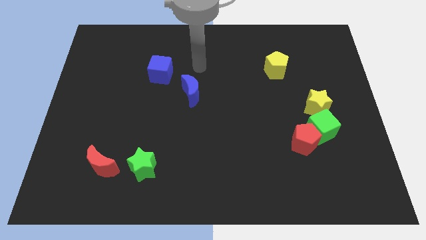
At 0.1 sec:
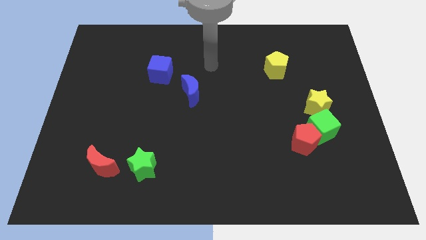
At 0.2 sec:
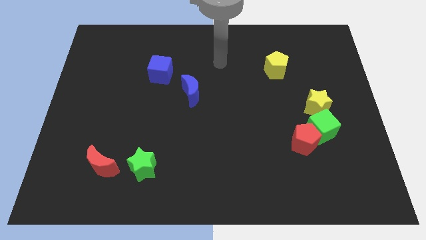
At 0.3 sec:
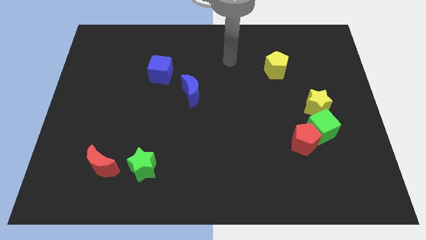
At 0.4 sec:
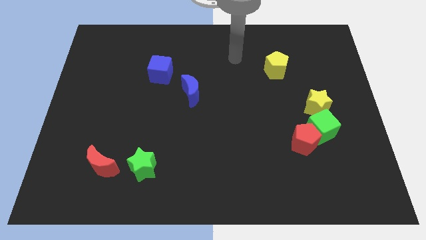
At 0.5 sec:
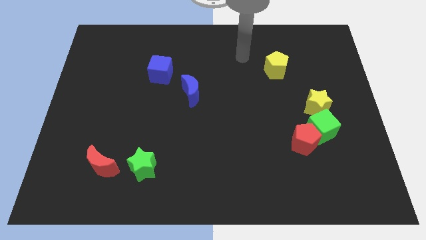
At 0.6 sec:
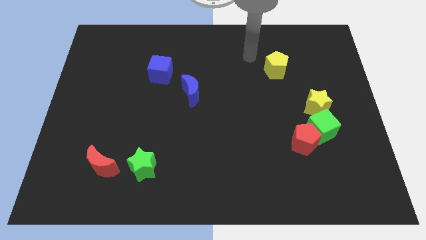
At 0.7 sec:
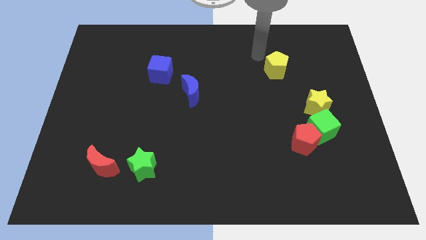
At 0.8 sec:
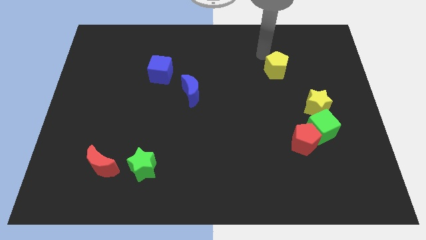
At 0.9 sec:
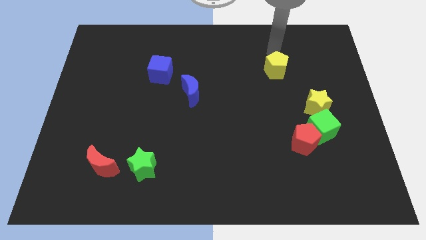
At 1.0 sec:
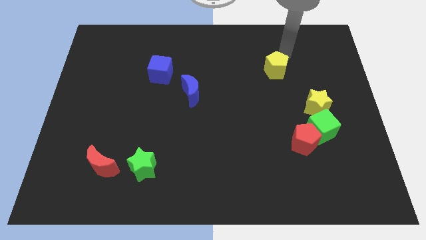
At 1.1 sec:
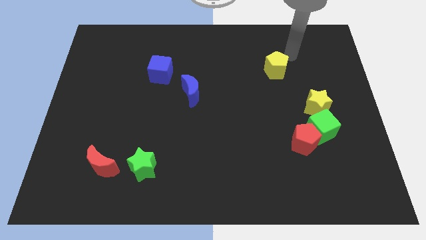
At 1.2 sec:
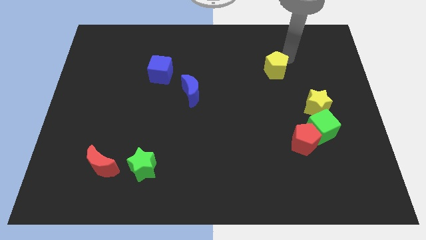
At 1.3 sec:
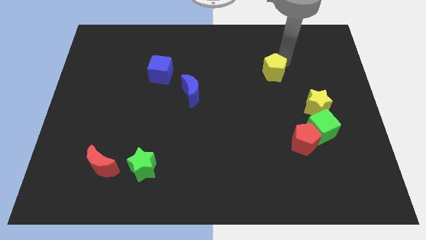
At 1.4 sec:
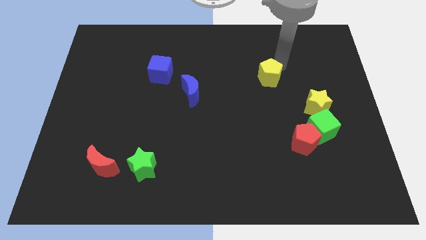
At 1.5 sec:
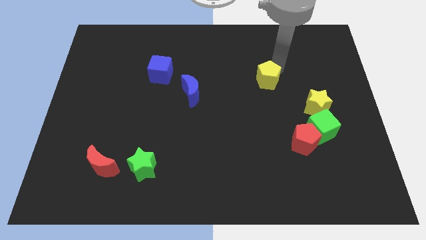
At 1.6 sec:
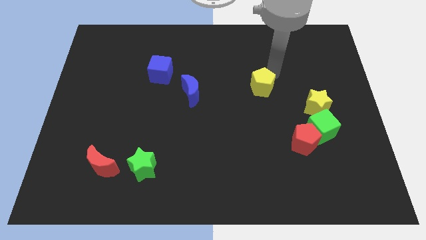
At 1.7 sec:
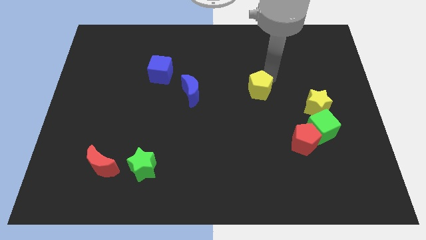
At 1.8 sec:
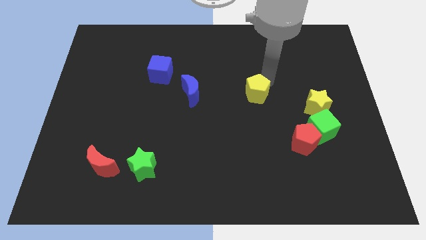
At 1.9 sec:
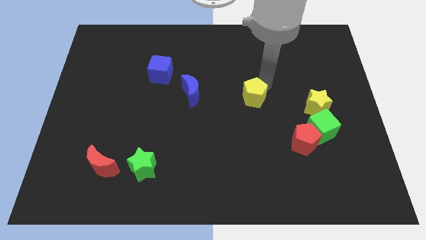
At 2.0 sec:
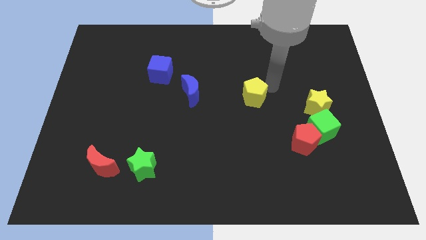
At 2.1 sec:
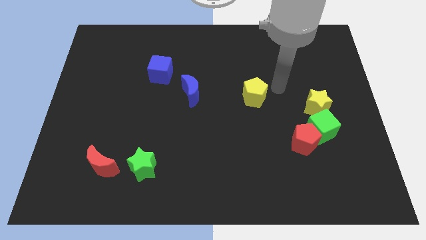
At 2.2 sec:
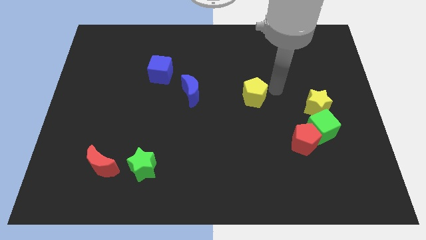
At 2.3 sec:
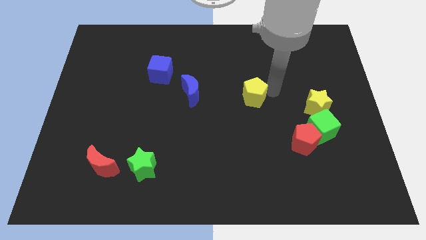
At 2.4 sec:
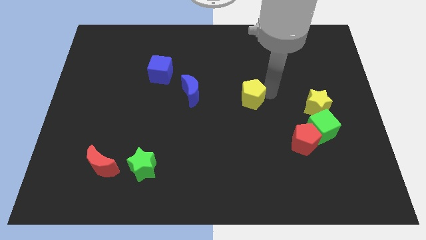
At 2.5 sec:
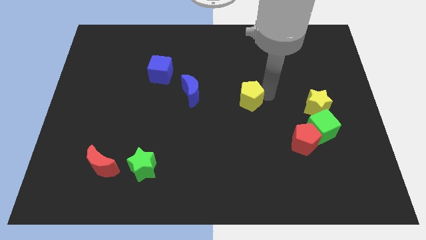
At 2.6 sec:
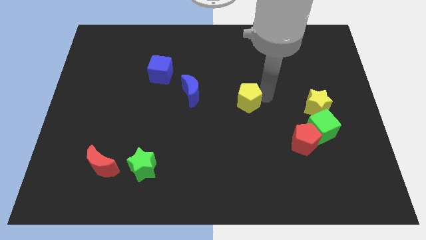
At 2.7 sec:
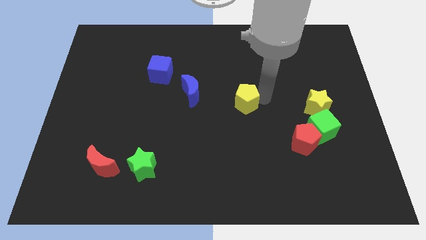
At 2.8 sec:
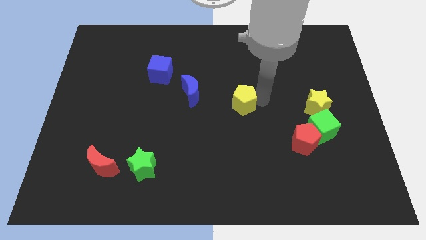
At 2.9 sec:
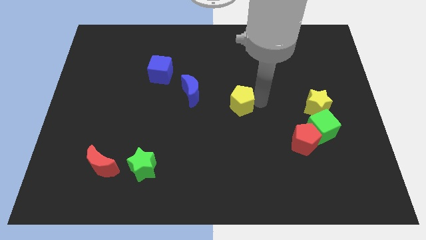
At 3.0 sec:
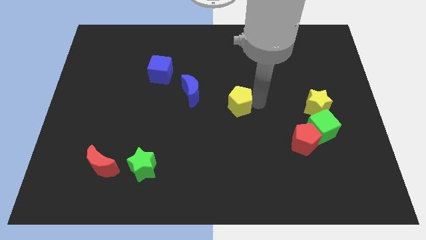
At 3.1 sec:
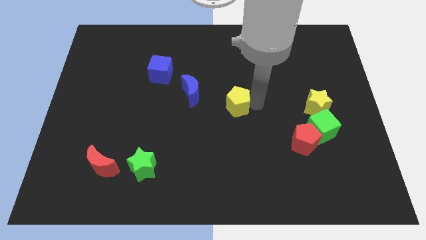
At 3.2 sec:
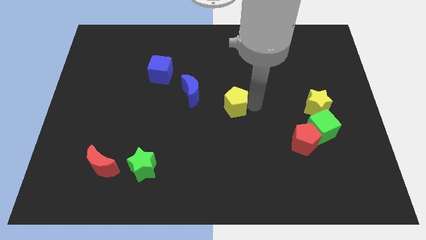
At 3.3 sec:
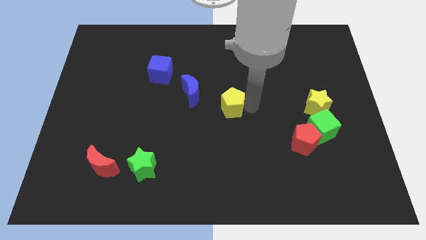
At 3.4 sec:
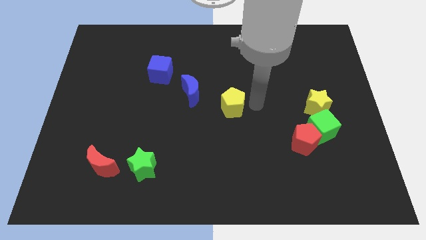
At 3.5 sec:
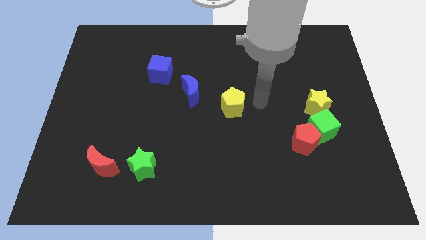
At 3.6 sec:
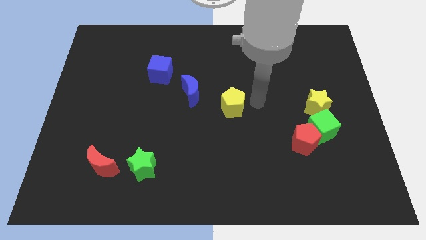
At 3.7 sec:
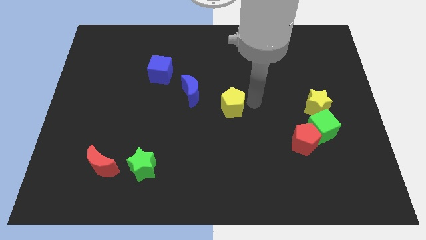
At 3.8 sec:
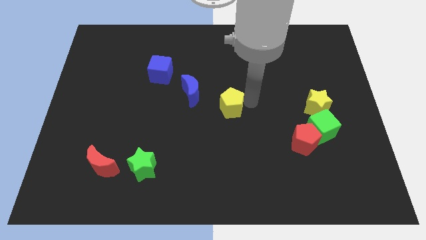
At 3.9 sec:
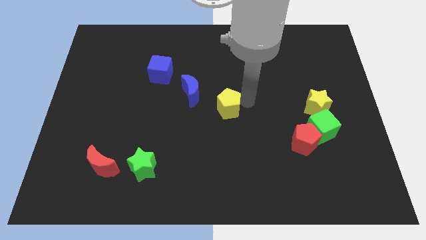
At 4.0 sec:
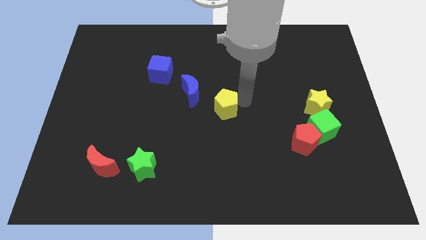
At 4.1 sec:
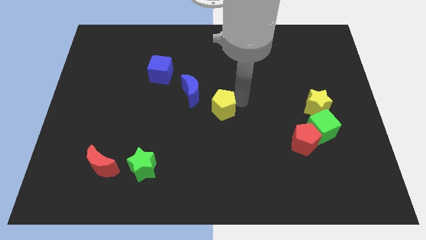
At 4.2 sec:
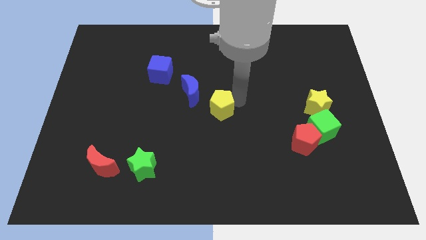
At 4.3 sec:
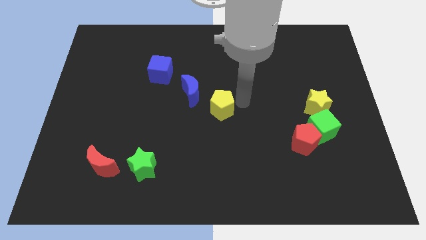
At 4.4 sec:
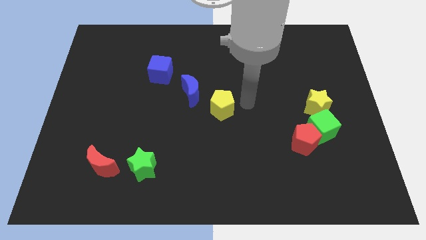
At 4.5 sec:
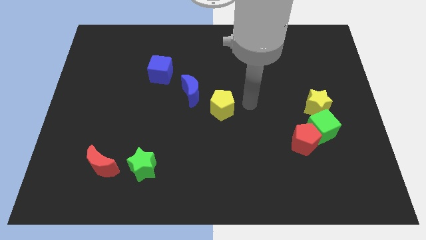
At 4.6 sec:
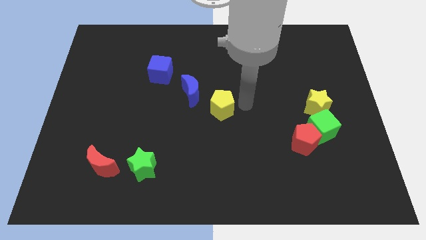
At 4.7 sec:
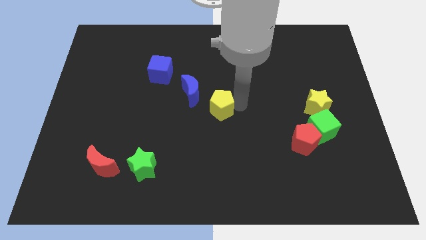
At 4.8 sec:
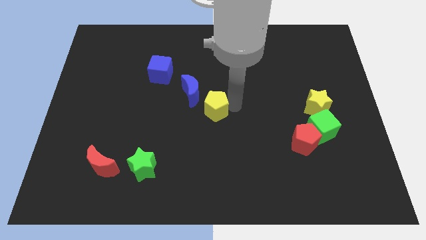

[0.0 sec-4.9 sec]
push the yellow pentagon diagonally down and left

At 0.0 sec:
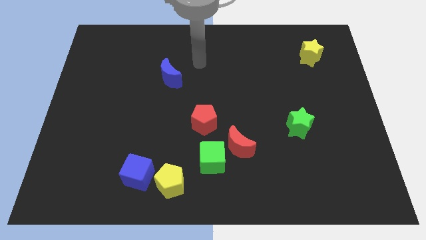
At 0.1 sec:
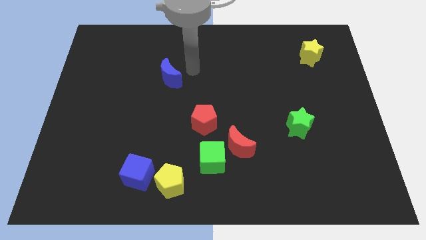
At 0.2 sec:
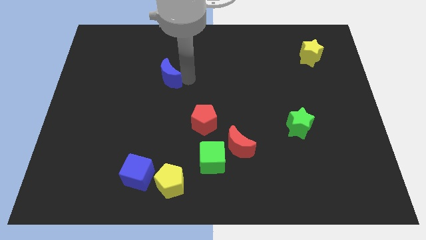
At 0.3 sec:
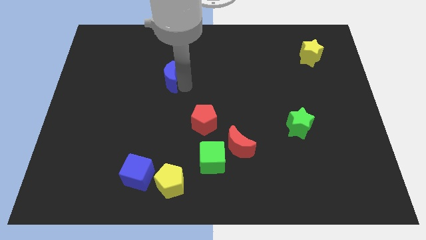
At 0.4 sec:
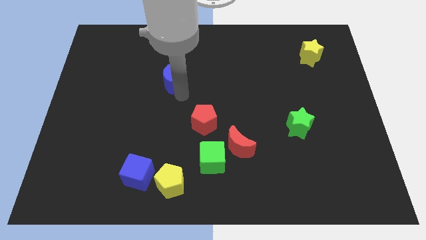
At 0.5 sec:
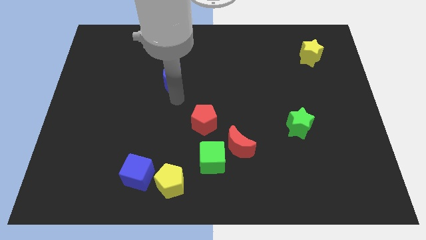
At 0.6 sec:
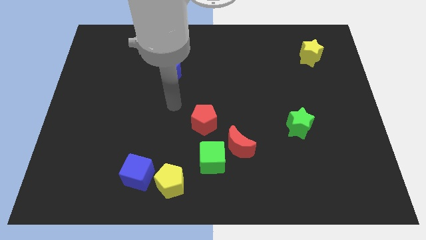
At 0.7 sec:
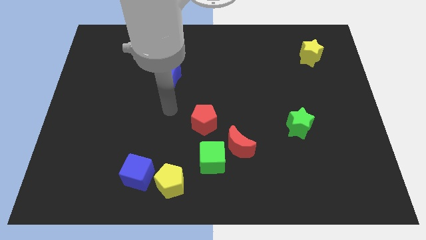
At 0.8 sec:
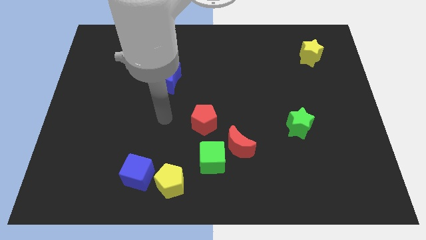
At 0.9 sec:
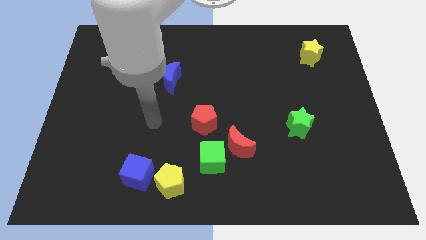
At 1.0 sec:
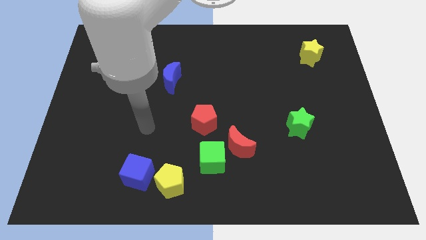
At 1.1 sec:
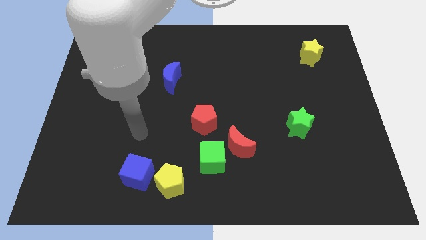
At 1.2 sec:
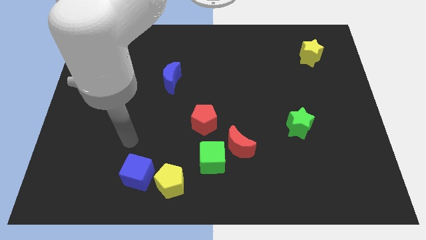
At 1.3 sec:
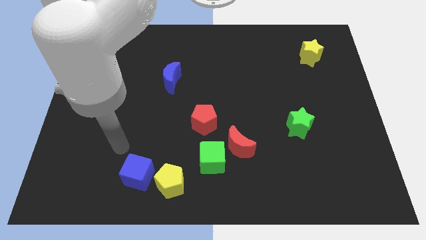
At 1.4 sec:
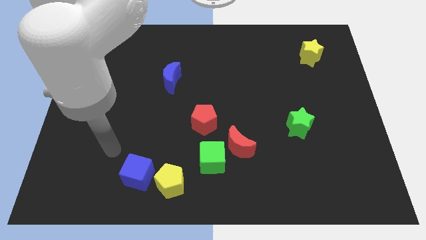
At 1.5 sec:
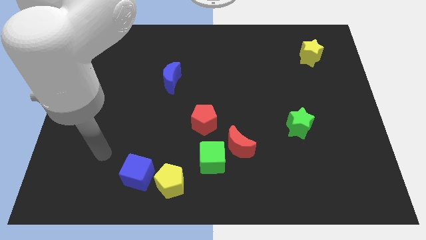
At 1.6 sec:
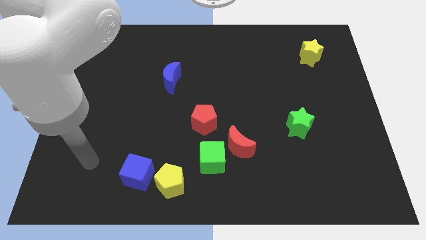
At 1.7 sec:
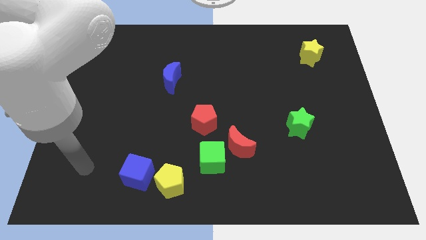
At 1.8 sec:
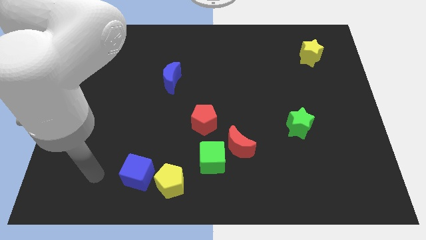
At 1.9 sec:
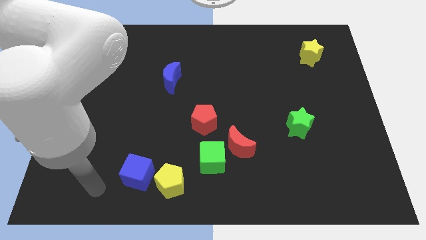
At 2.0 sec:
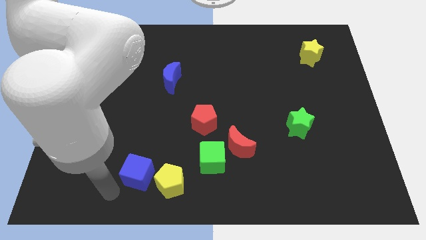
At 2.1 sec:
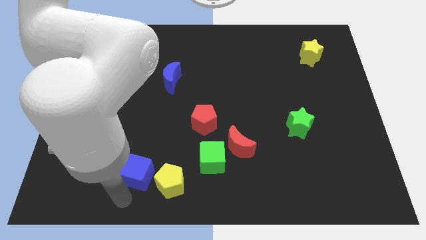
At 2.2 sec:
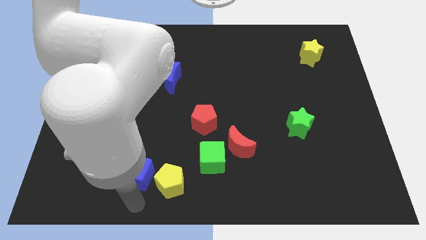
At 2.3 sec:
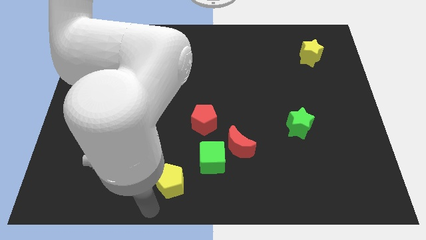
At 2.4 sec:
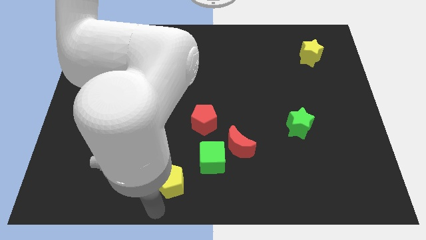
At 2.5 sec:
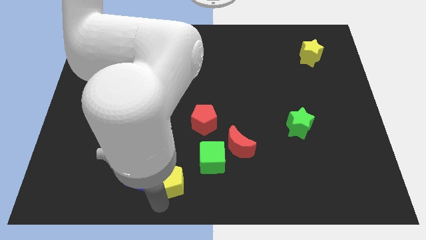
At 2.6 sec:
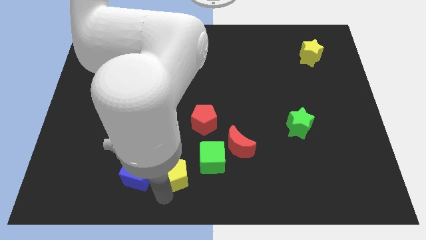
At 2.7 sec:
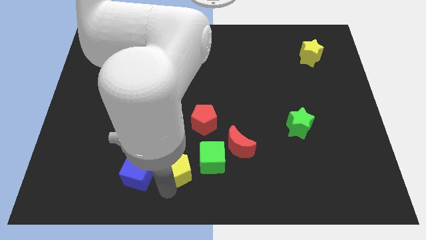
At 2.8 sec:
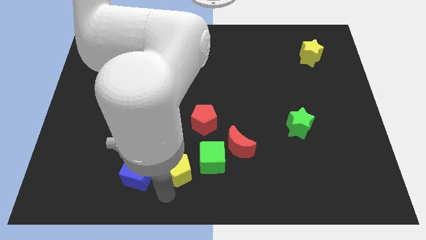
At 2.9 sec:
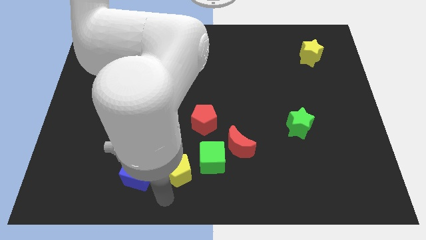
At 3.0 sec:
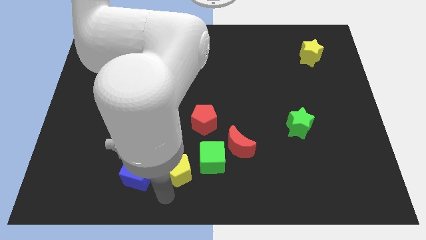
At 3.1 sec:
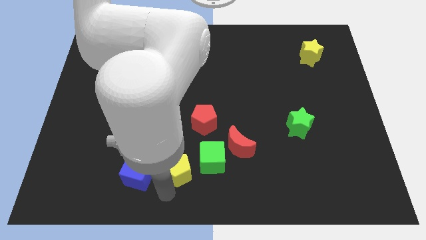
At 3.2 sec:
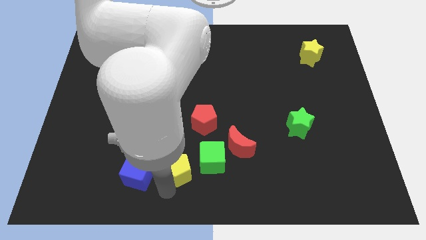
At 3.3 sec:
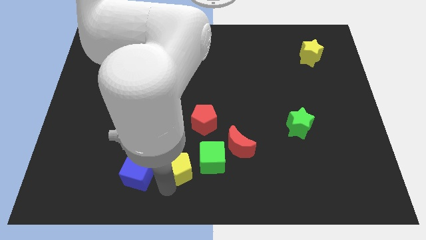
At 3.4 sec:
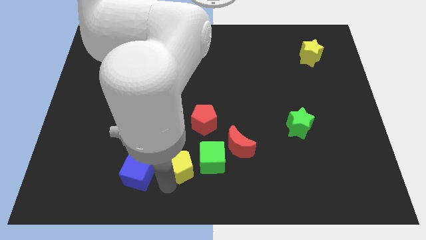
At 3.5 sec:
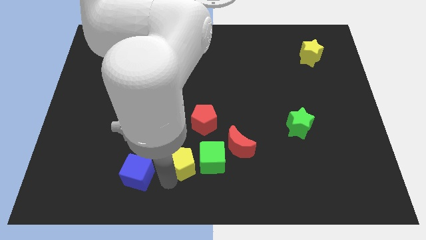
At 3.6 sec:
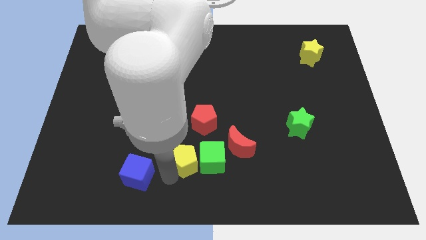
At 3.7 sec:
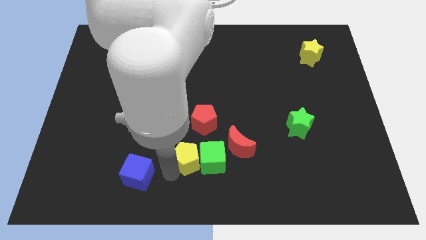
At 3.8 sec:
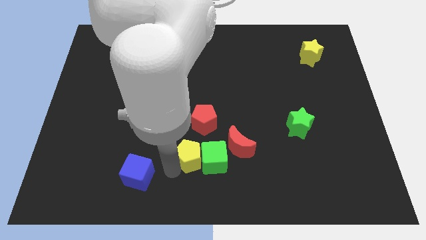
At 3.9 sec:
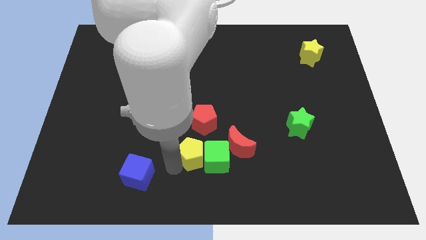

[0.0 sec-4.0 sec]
slightly slide the yellow pentagon diagonally up and right
